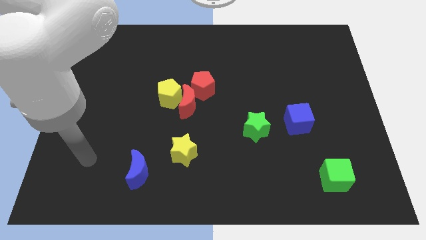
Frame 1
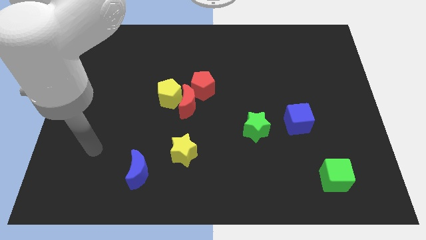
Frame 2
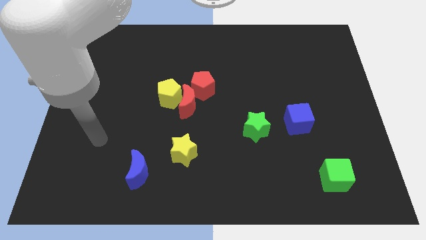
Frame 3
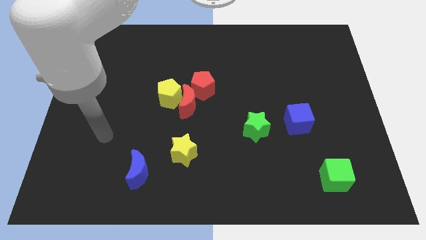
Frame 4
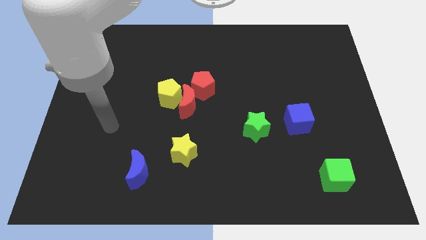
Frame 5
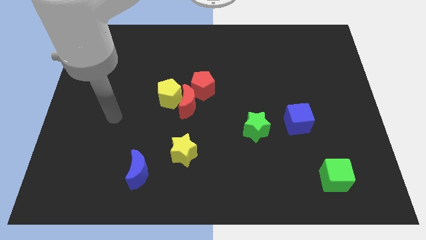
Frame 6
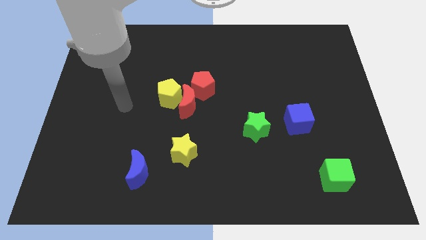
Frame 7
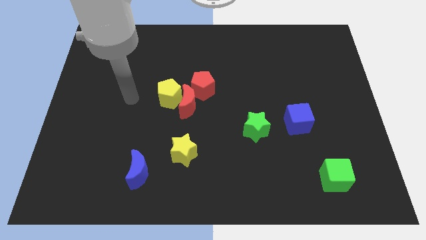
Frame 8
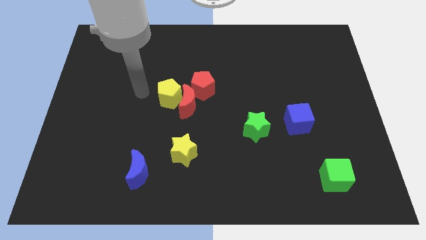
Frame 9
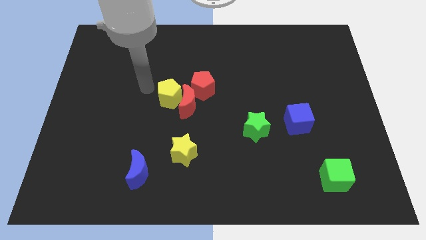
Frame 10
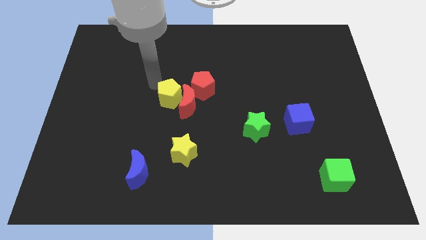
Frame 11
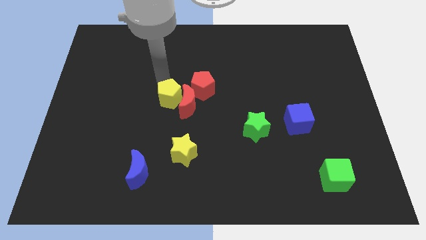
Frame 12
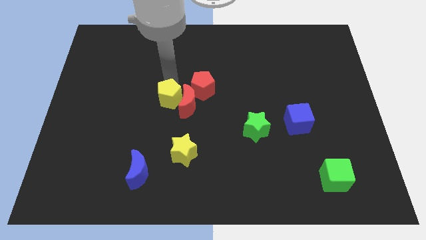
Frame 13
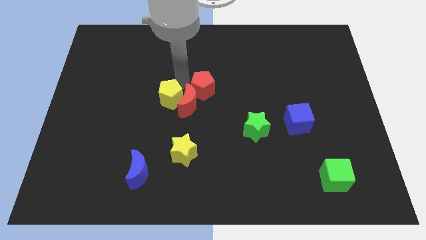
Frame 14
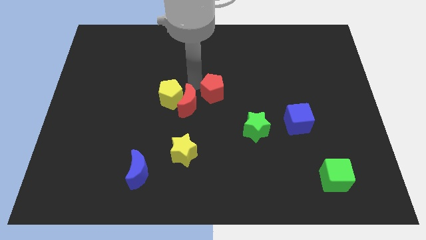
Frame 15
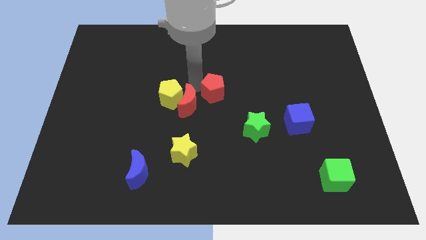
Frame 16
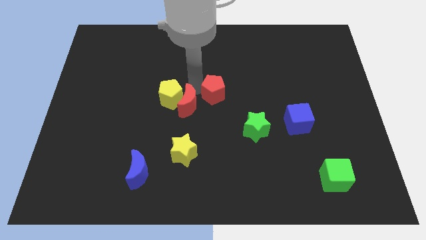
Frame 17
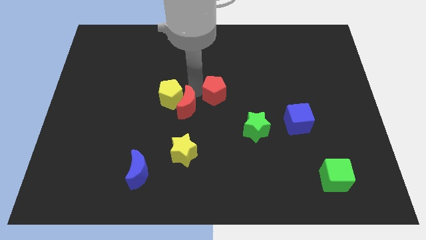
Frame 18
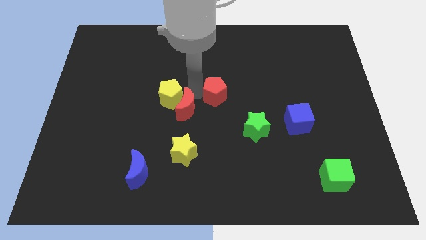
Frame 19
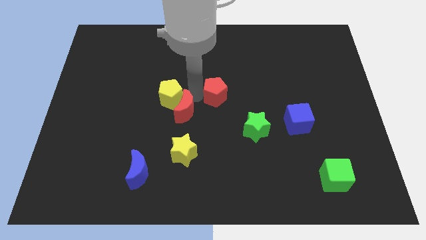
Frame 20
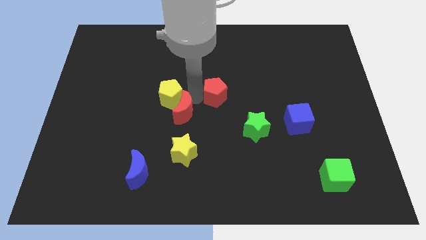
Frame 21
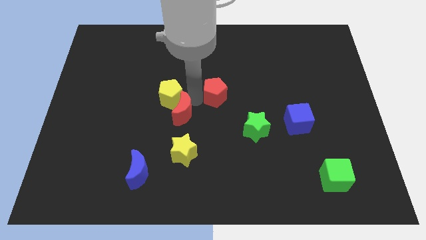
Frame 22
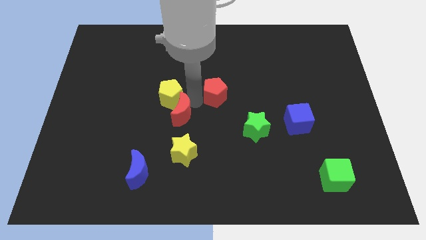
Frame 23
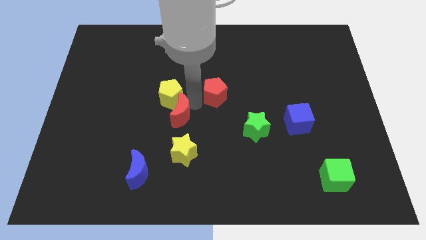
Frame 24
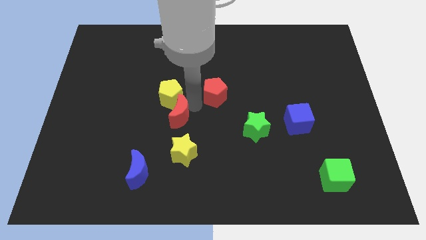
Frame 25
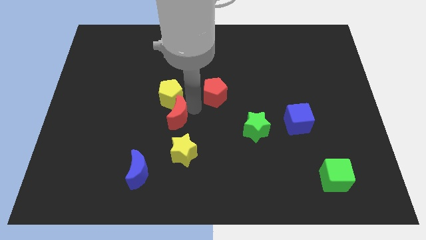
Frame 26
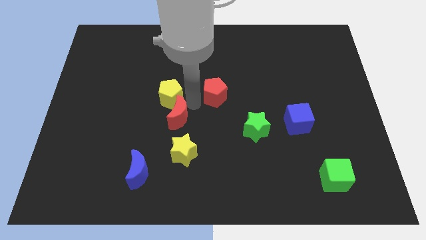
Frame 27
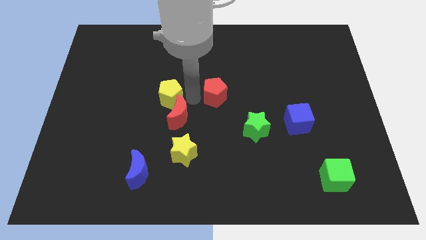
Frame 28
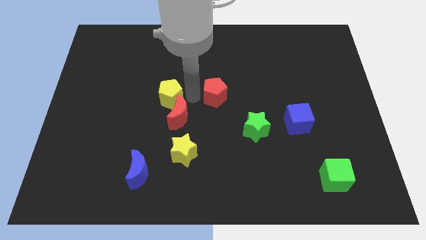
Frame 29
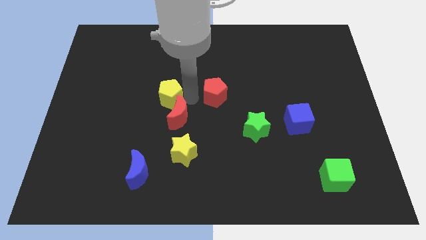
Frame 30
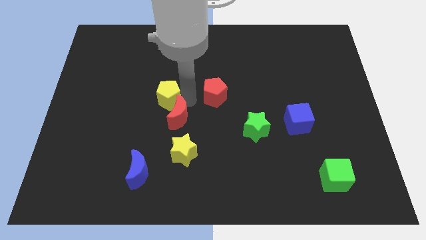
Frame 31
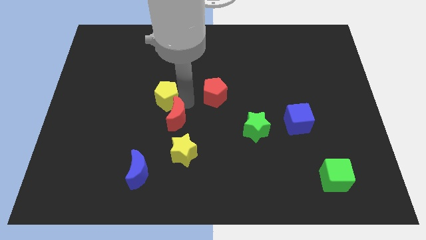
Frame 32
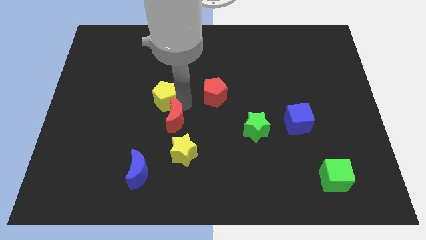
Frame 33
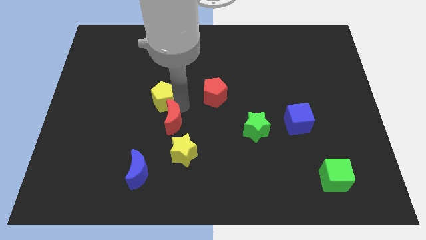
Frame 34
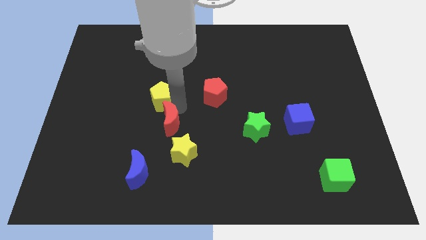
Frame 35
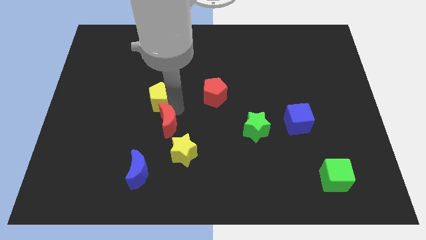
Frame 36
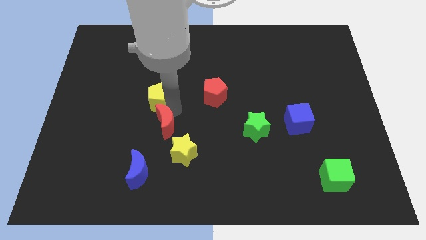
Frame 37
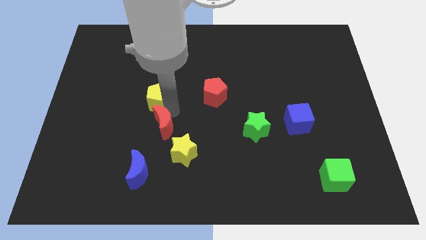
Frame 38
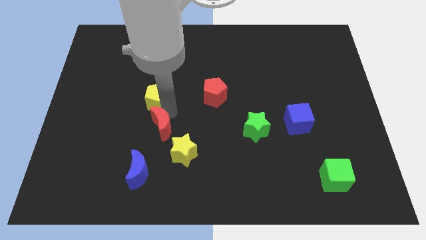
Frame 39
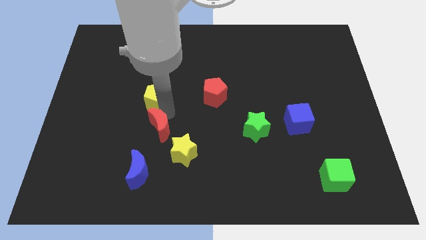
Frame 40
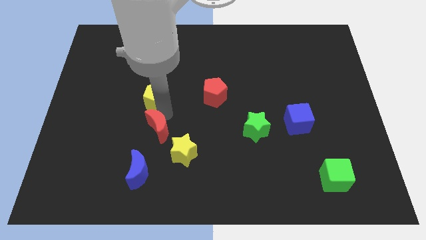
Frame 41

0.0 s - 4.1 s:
pull the red moon apart from the yellow pentagon and red pentagon

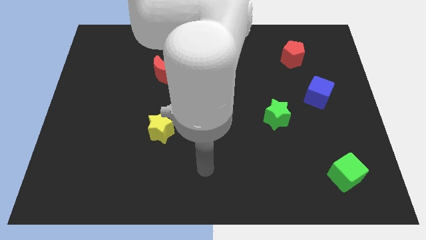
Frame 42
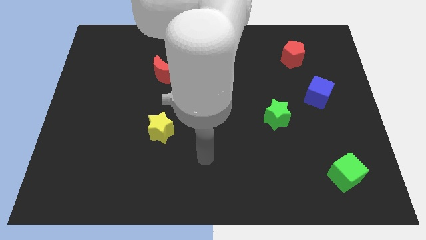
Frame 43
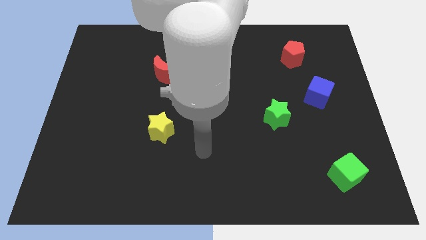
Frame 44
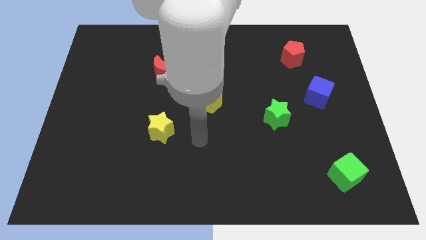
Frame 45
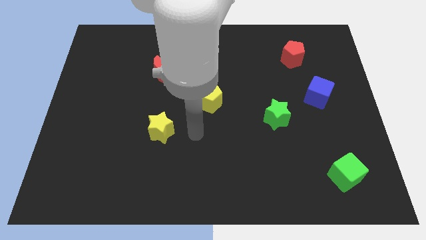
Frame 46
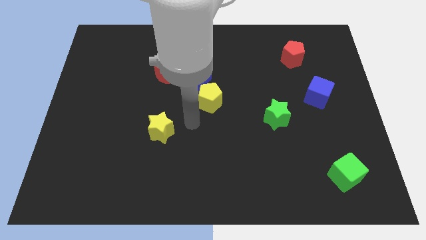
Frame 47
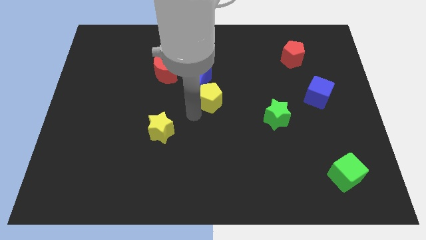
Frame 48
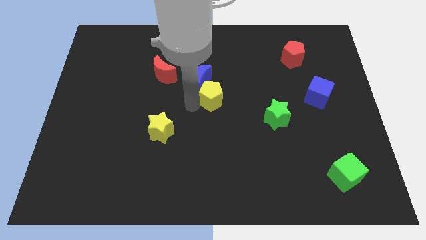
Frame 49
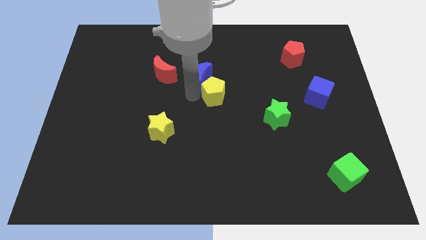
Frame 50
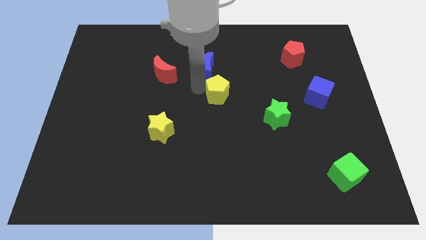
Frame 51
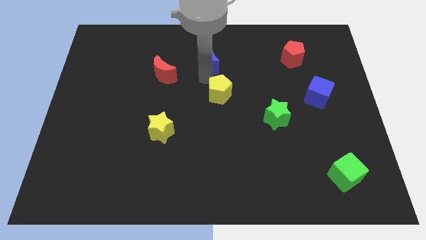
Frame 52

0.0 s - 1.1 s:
pull the yellow pentagon apart from the blue moon

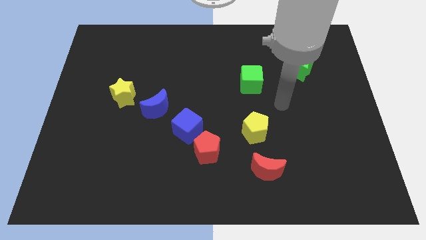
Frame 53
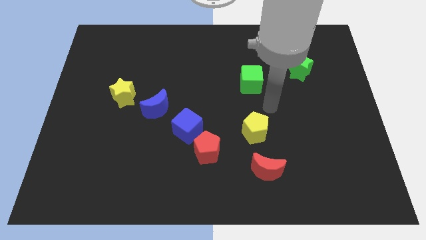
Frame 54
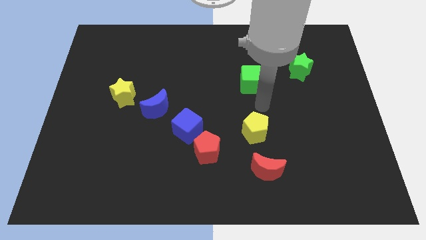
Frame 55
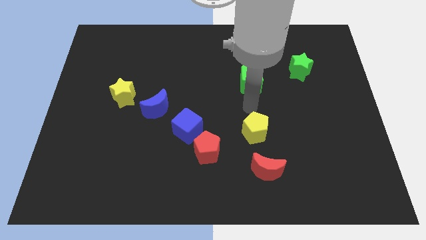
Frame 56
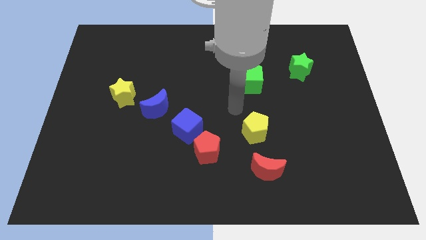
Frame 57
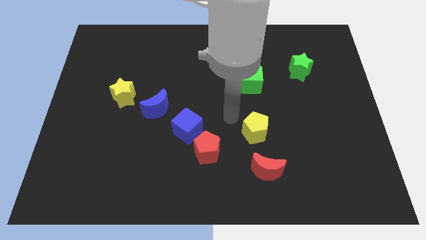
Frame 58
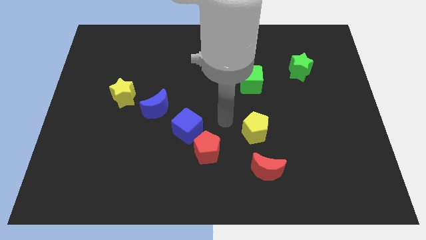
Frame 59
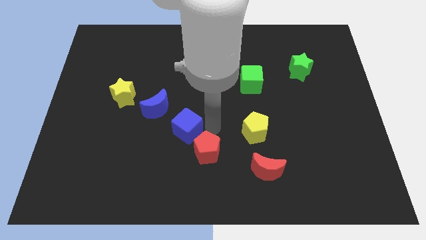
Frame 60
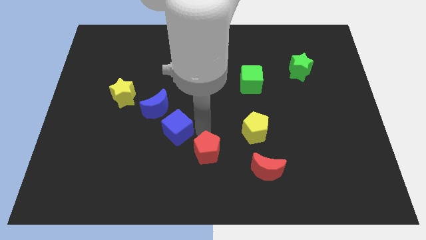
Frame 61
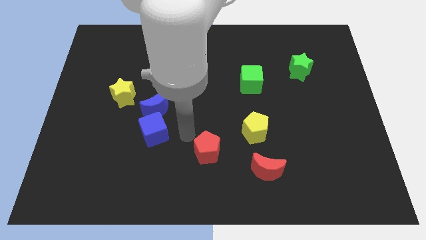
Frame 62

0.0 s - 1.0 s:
move the red pentagon away from the blue cube

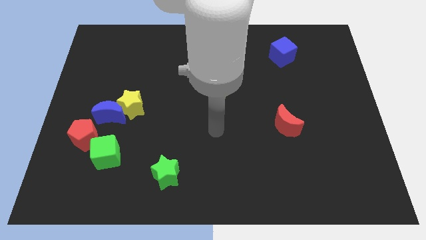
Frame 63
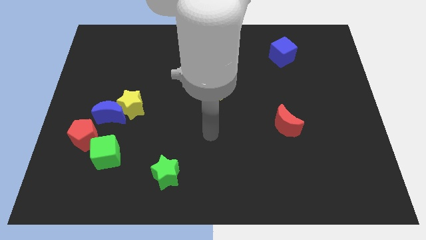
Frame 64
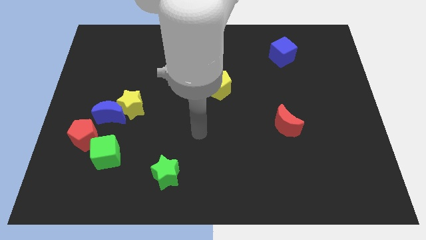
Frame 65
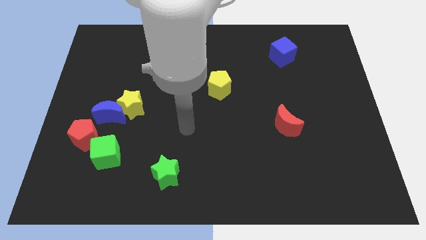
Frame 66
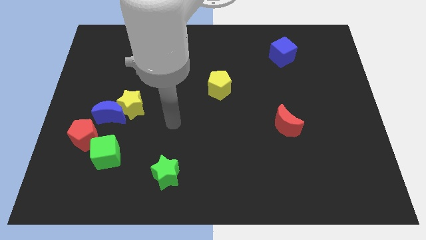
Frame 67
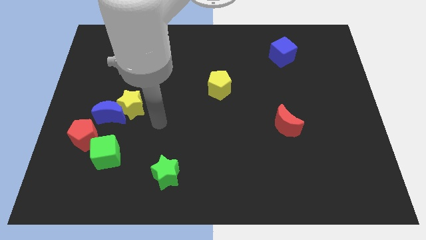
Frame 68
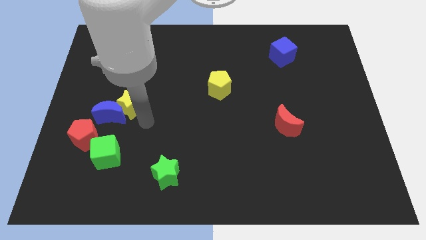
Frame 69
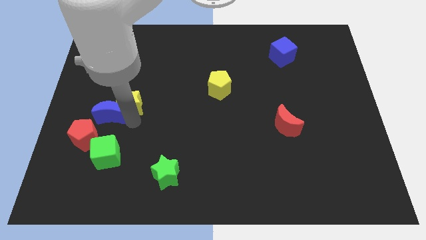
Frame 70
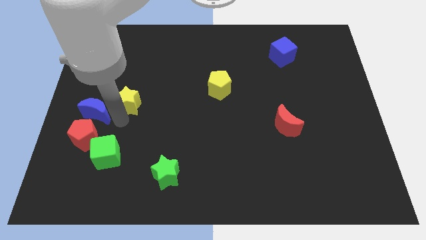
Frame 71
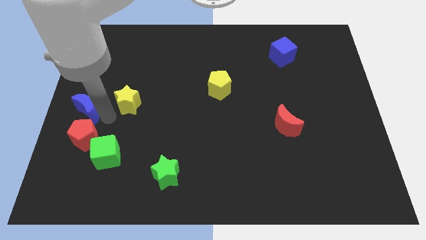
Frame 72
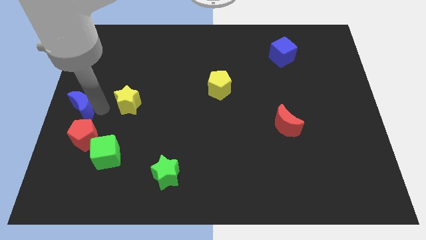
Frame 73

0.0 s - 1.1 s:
move the yellow star away from the blue moon

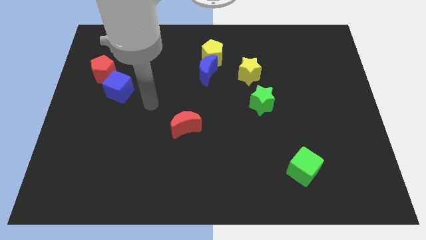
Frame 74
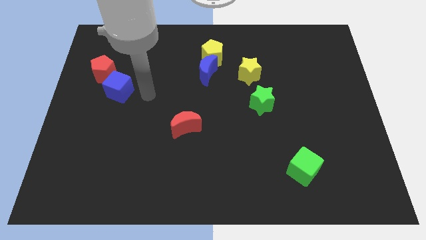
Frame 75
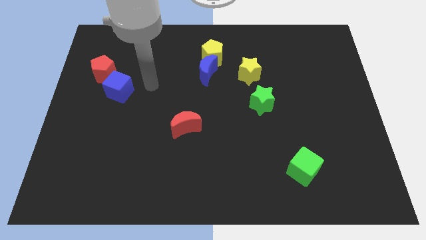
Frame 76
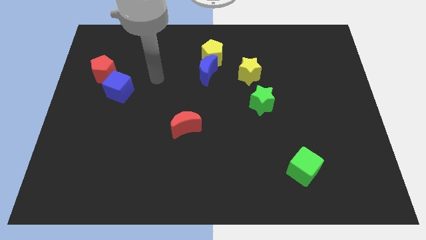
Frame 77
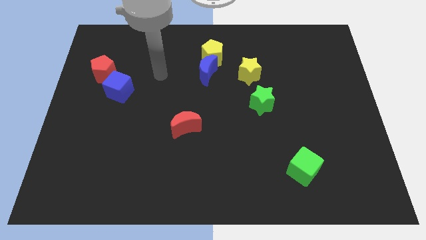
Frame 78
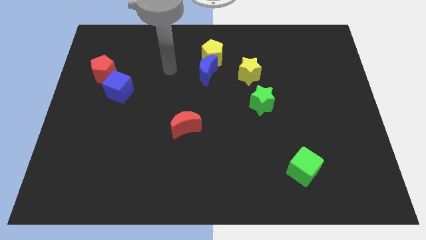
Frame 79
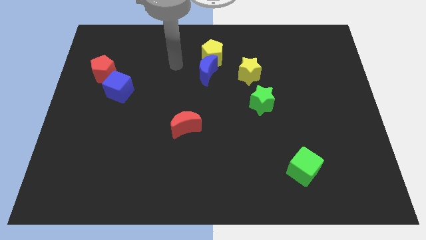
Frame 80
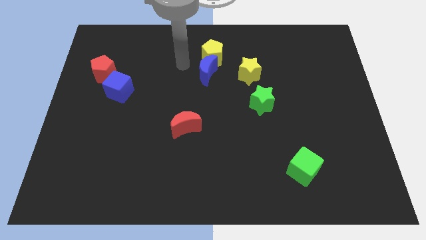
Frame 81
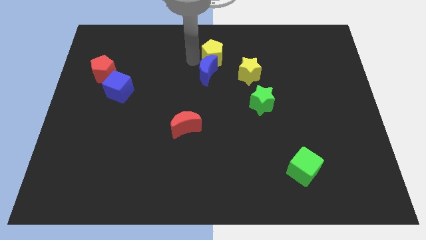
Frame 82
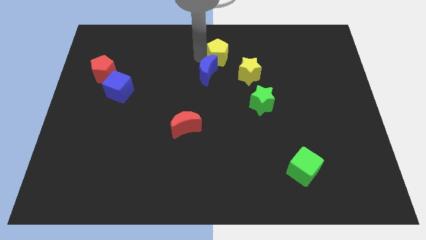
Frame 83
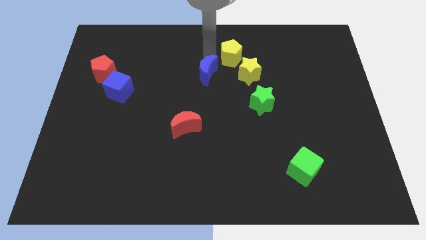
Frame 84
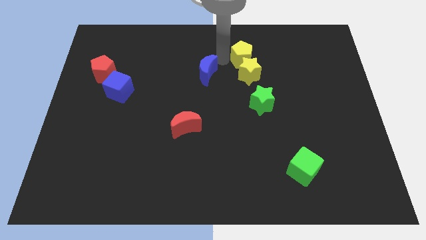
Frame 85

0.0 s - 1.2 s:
move the blue moon away from the yellow pentagon

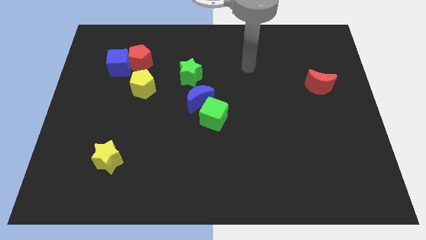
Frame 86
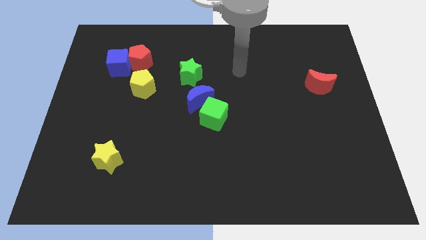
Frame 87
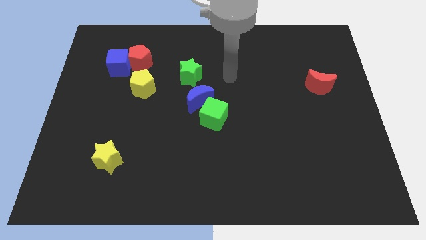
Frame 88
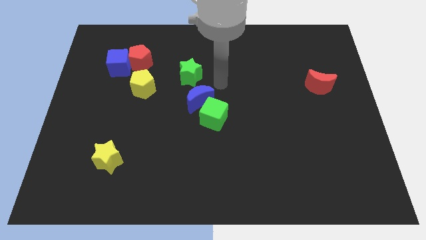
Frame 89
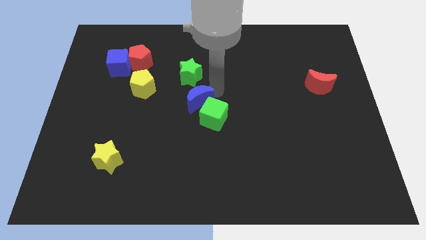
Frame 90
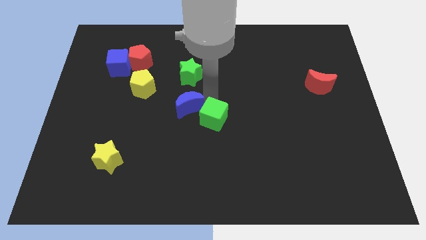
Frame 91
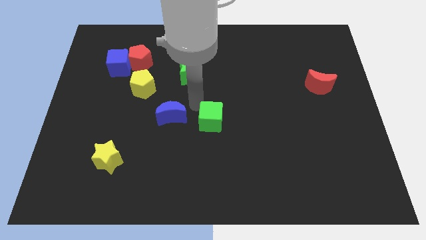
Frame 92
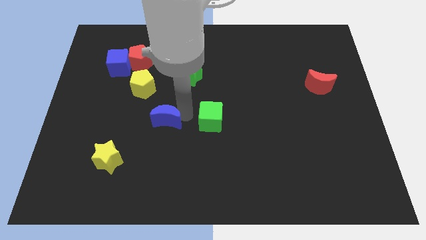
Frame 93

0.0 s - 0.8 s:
pull the green cube apart from the blue moon
